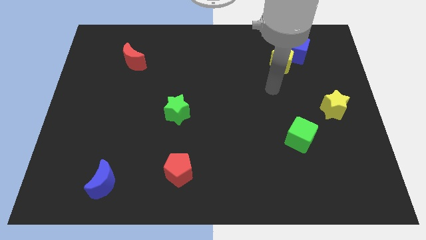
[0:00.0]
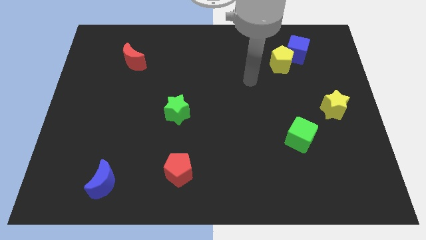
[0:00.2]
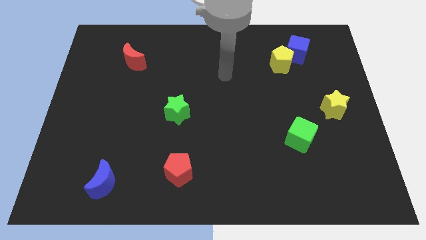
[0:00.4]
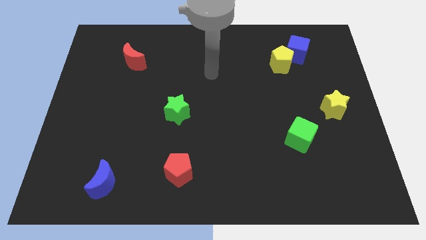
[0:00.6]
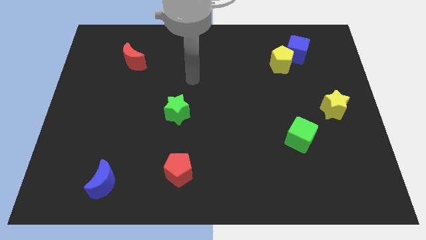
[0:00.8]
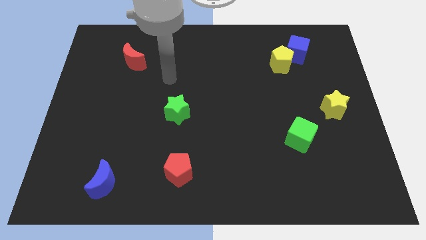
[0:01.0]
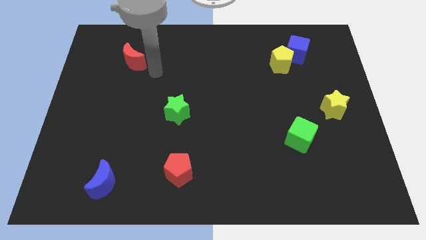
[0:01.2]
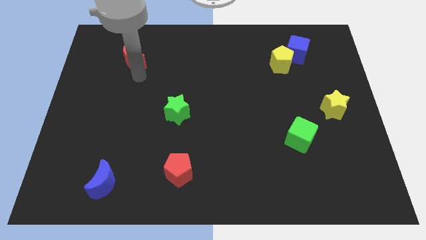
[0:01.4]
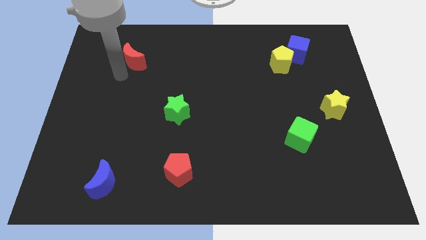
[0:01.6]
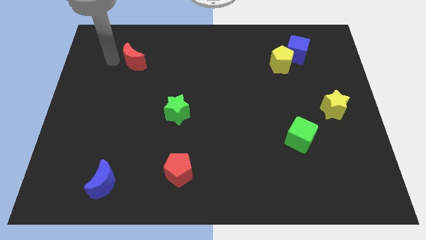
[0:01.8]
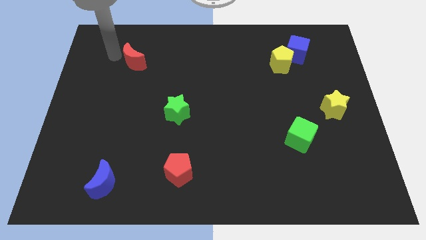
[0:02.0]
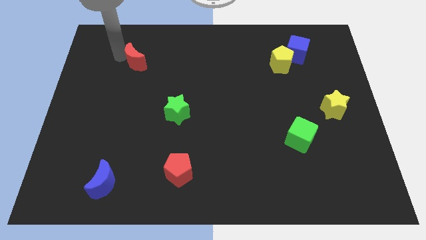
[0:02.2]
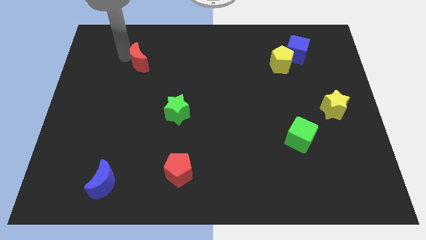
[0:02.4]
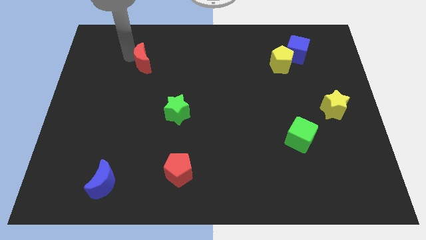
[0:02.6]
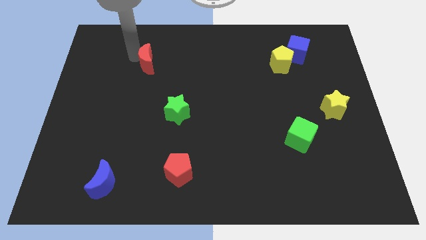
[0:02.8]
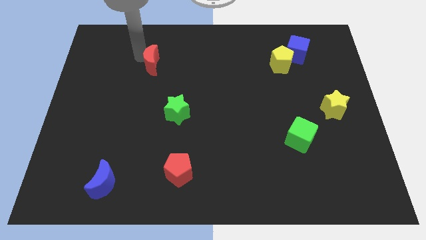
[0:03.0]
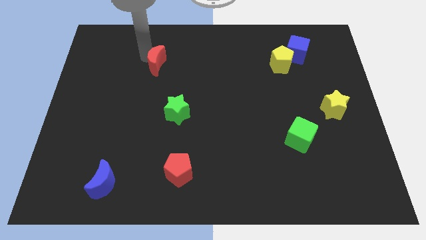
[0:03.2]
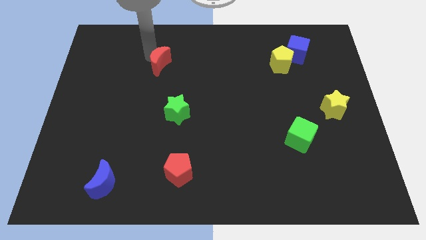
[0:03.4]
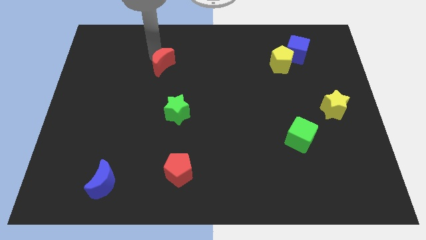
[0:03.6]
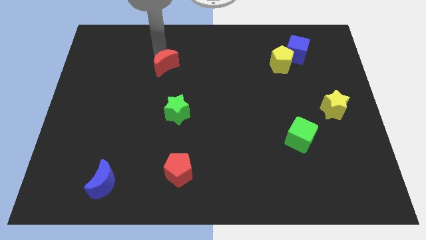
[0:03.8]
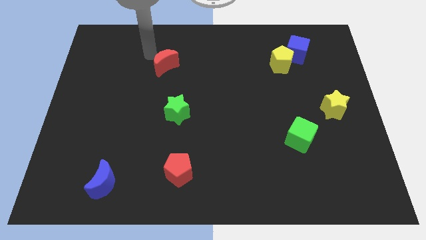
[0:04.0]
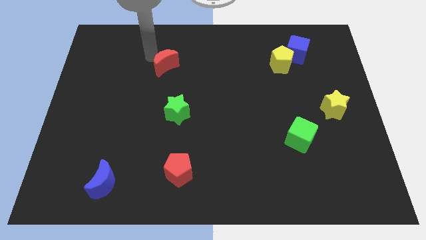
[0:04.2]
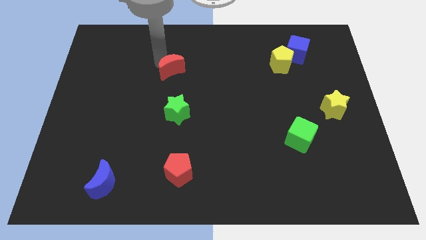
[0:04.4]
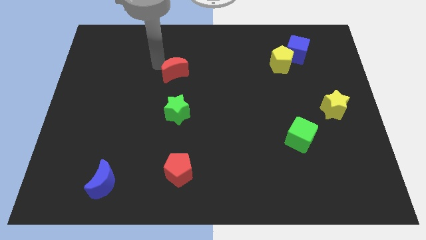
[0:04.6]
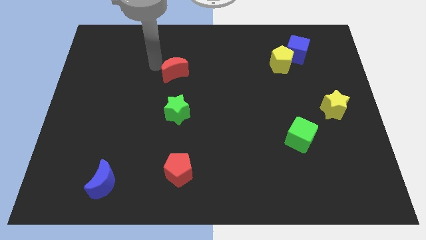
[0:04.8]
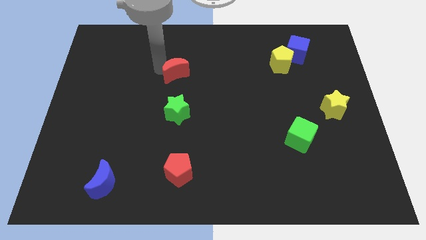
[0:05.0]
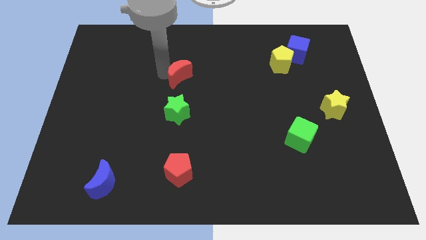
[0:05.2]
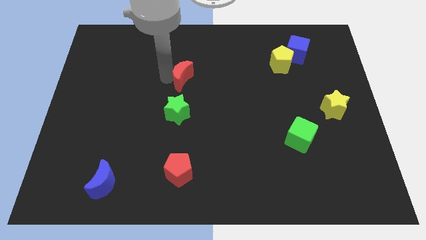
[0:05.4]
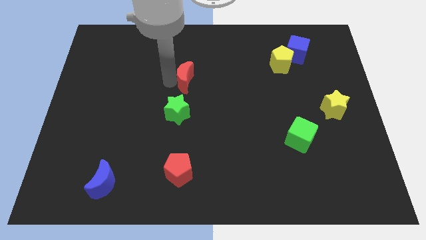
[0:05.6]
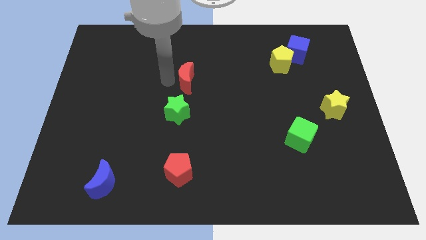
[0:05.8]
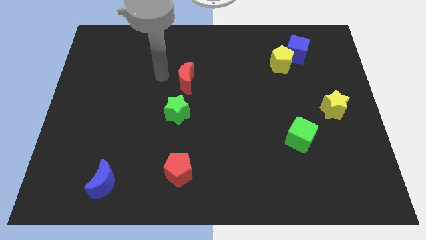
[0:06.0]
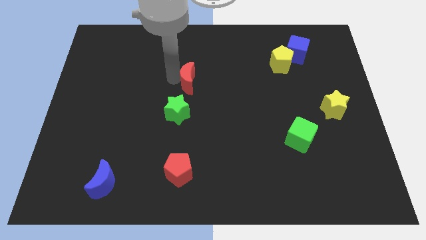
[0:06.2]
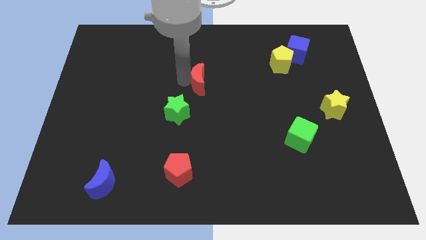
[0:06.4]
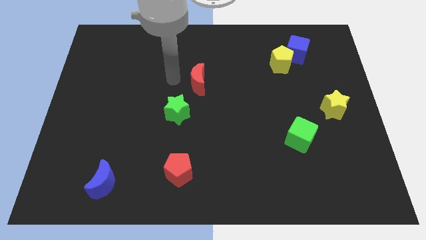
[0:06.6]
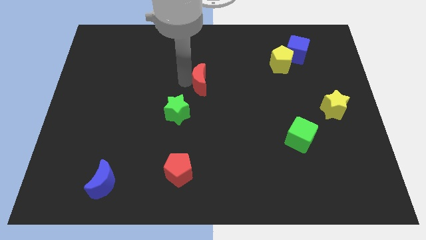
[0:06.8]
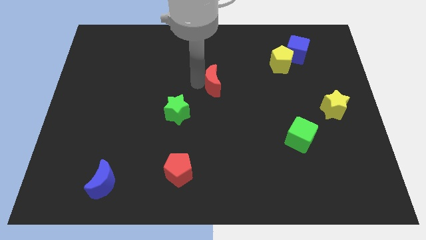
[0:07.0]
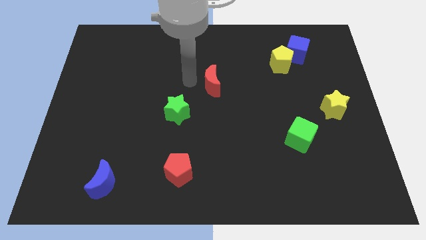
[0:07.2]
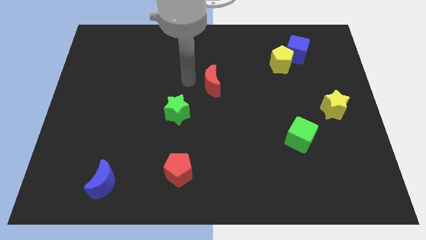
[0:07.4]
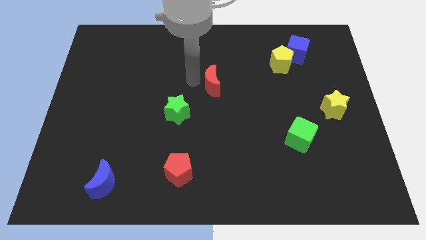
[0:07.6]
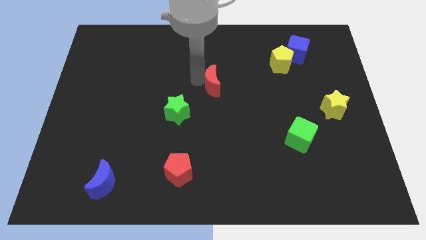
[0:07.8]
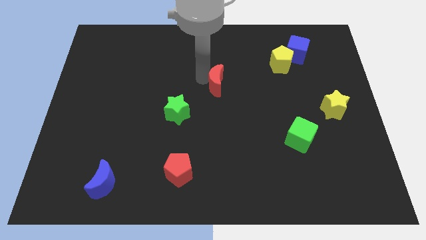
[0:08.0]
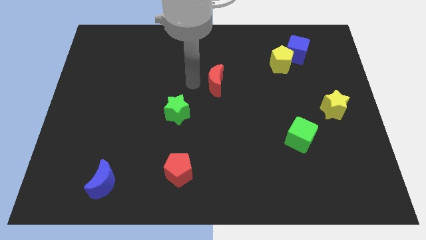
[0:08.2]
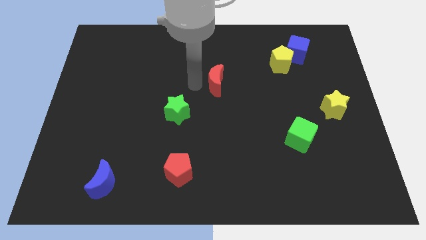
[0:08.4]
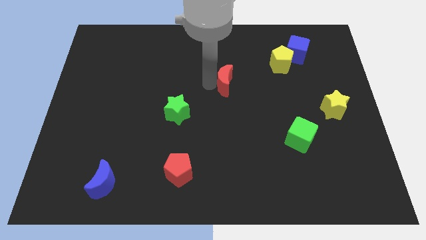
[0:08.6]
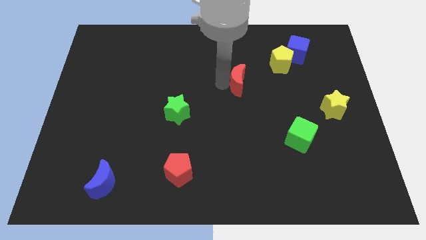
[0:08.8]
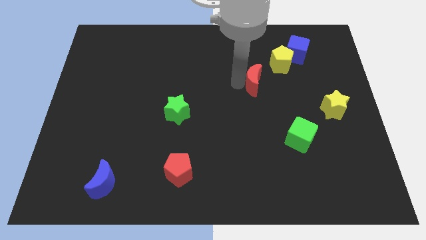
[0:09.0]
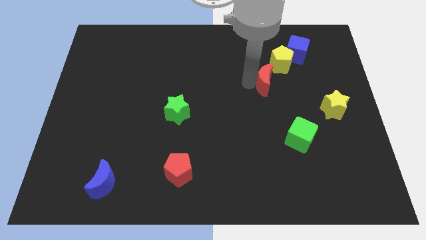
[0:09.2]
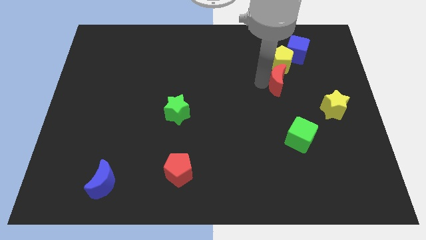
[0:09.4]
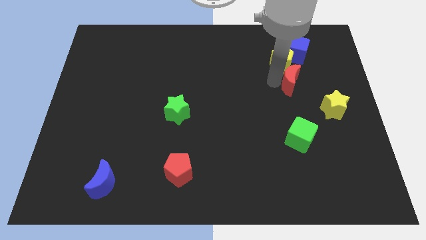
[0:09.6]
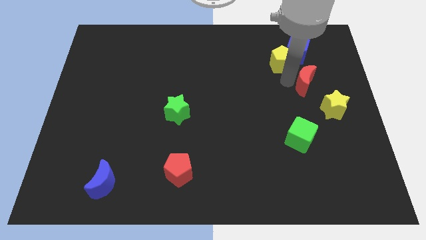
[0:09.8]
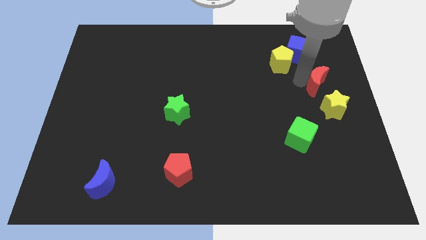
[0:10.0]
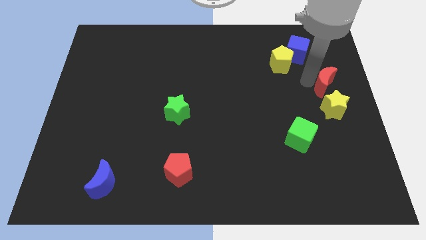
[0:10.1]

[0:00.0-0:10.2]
move the red moon to the right side of the board

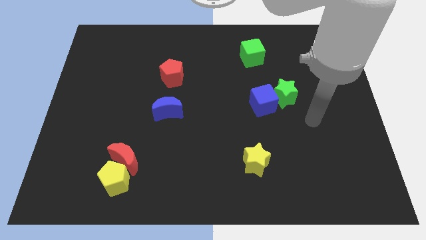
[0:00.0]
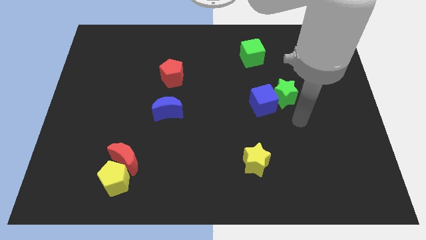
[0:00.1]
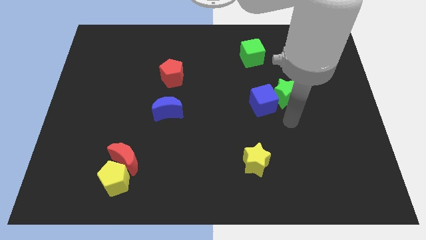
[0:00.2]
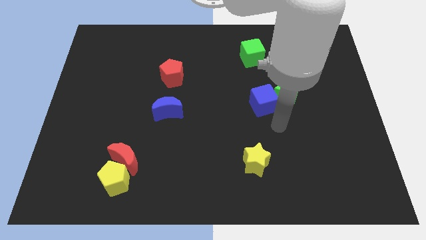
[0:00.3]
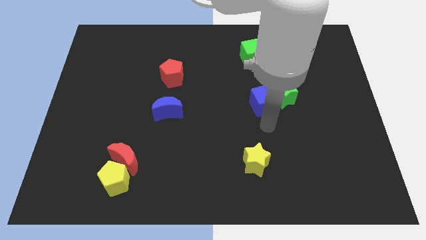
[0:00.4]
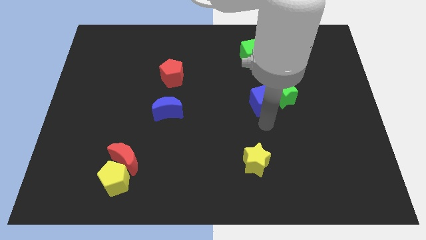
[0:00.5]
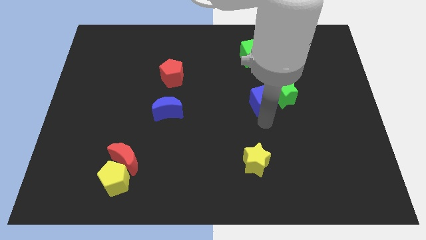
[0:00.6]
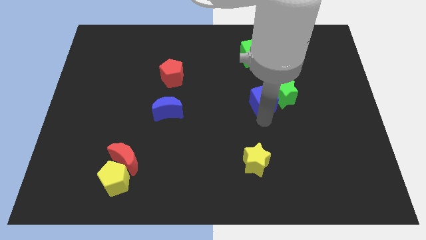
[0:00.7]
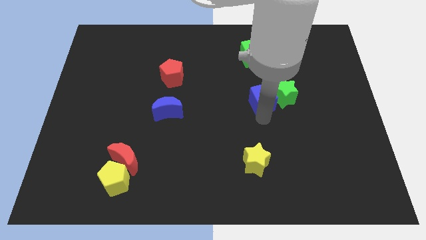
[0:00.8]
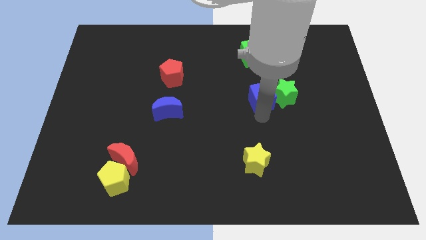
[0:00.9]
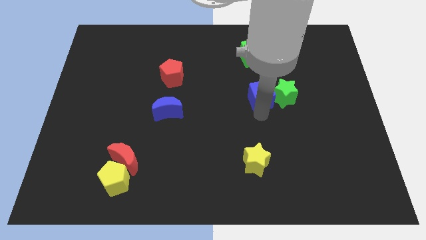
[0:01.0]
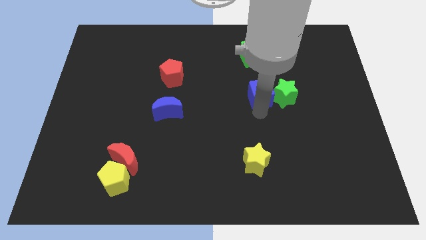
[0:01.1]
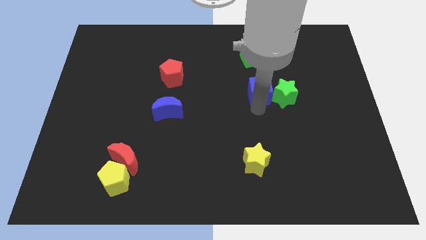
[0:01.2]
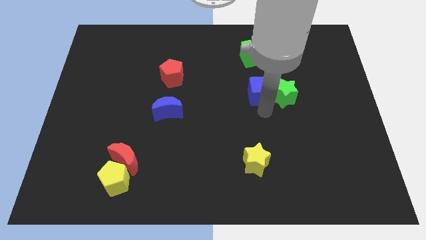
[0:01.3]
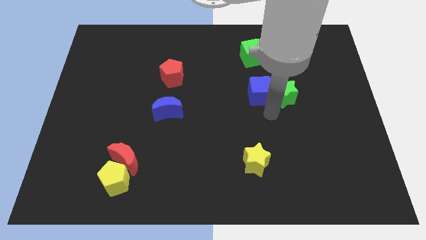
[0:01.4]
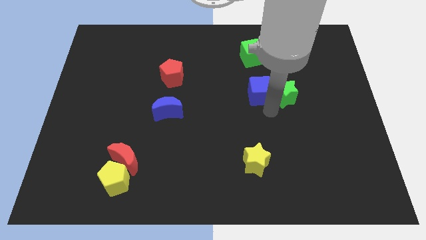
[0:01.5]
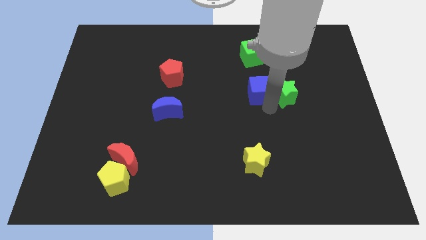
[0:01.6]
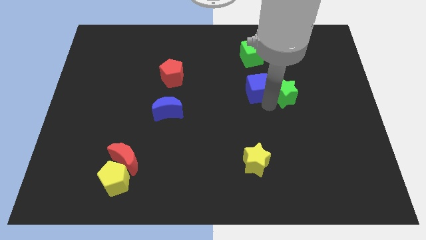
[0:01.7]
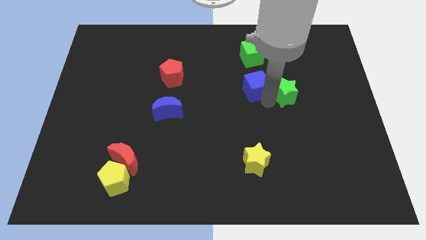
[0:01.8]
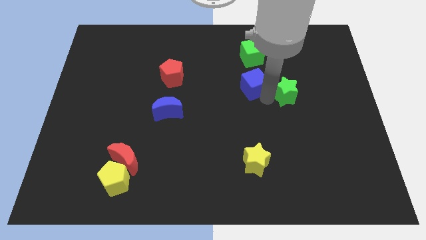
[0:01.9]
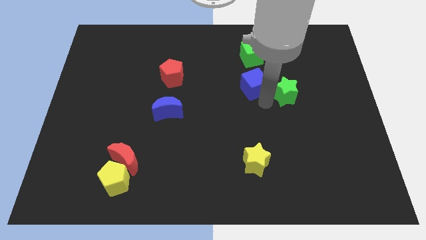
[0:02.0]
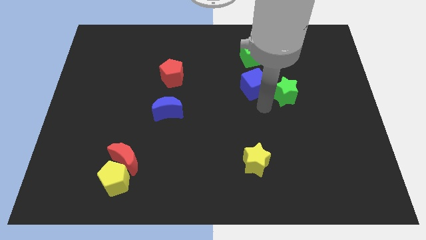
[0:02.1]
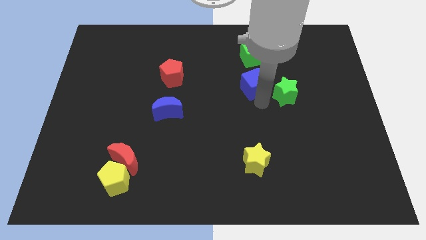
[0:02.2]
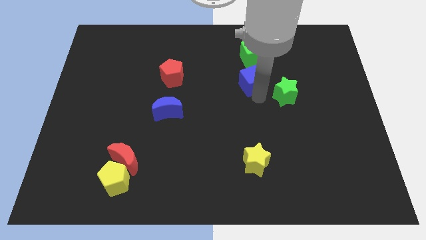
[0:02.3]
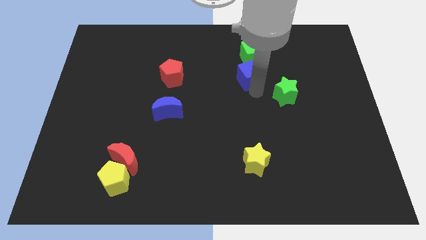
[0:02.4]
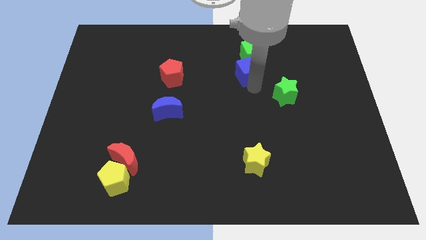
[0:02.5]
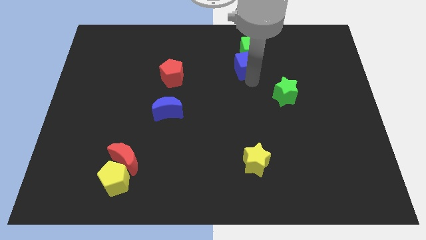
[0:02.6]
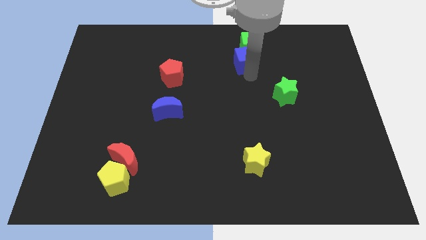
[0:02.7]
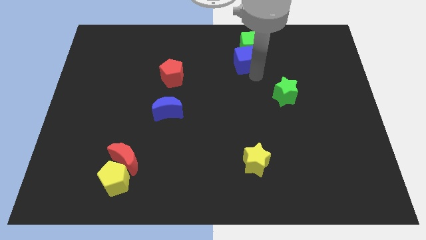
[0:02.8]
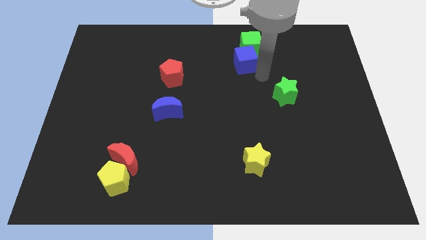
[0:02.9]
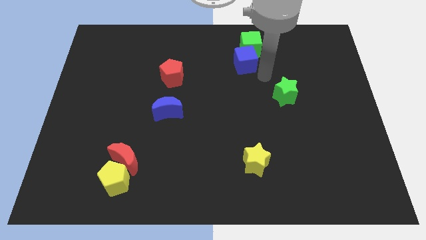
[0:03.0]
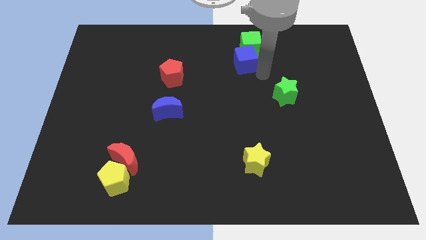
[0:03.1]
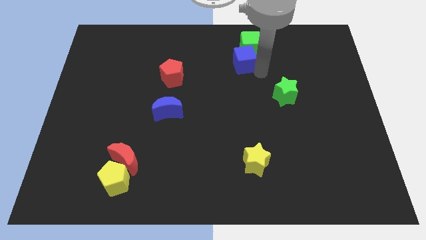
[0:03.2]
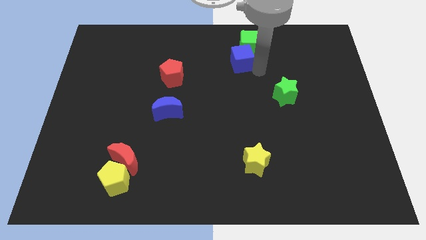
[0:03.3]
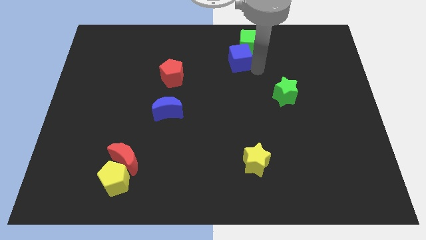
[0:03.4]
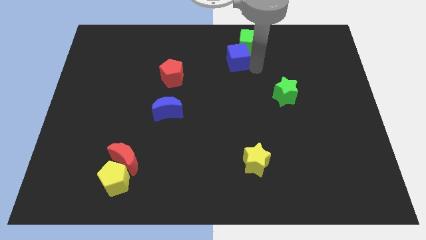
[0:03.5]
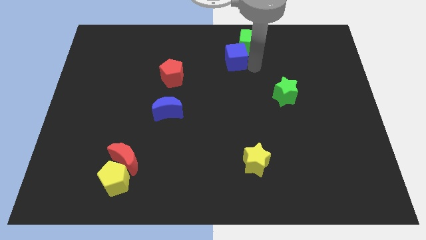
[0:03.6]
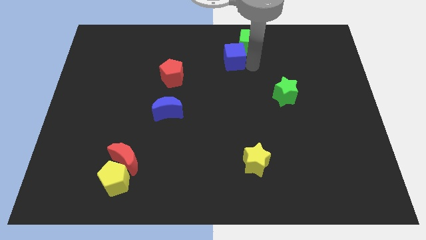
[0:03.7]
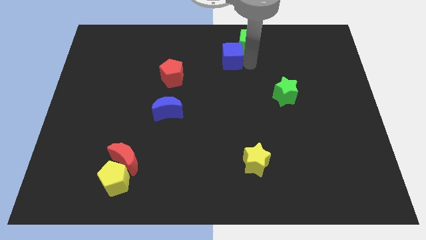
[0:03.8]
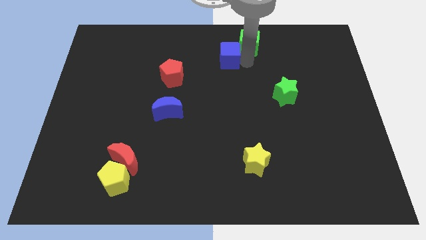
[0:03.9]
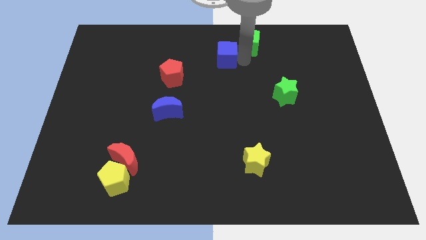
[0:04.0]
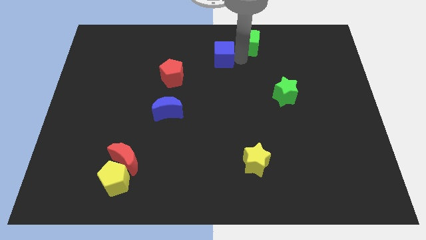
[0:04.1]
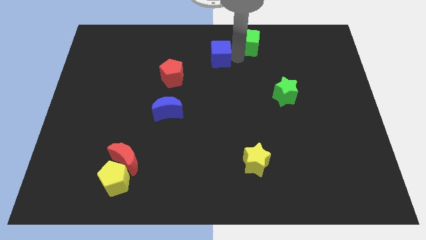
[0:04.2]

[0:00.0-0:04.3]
push the blue cube to the top side
